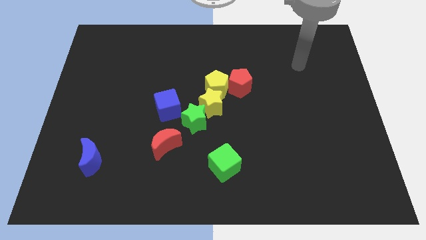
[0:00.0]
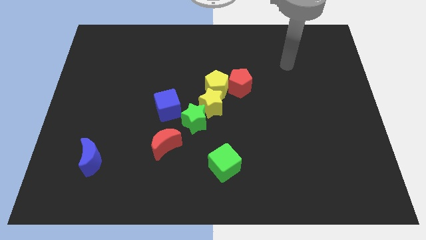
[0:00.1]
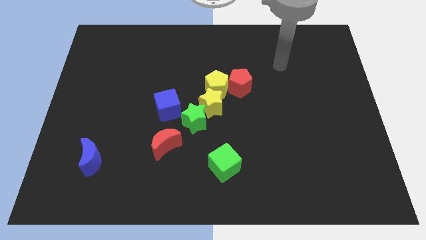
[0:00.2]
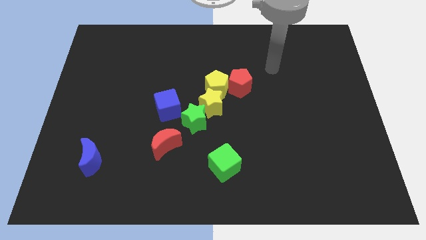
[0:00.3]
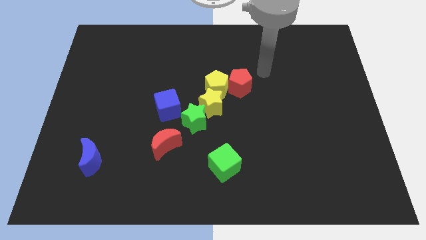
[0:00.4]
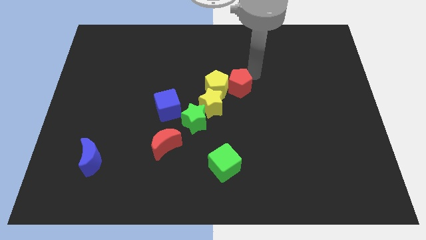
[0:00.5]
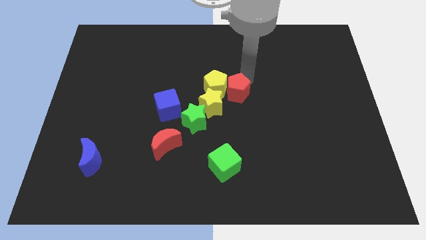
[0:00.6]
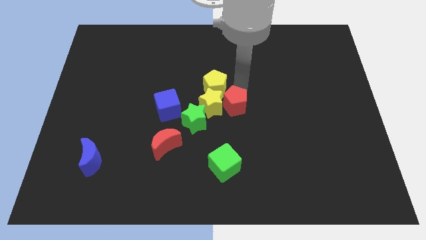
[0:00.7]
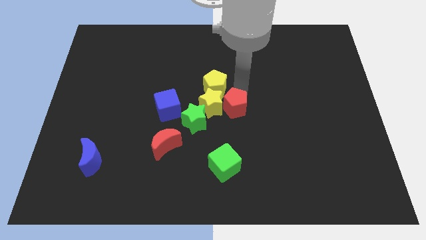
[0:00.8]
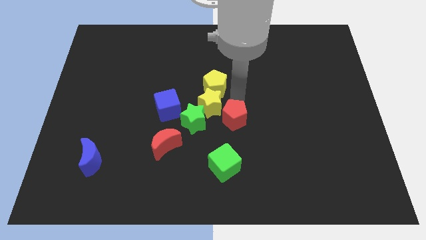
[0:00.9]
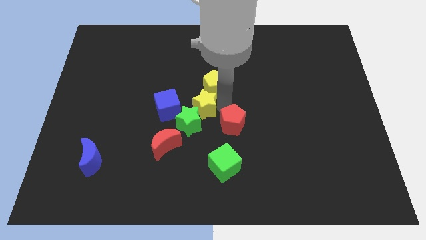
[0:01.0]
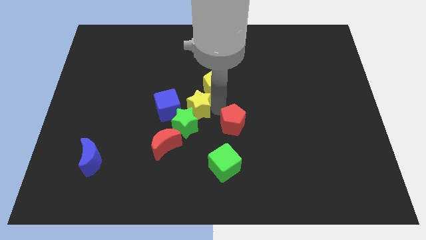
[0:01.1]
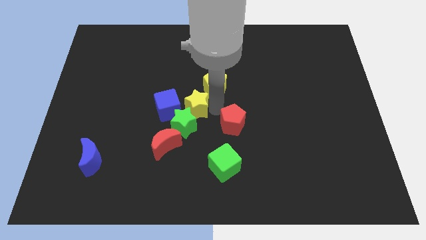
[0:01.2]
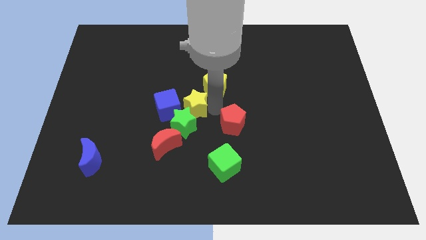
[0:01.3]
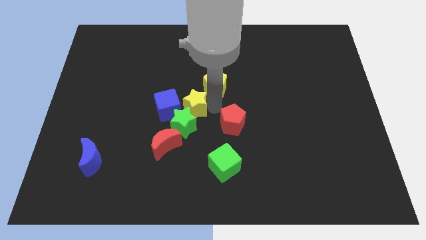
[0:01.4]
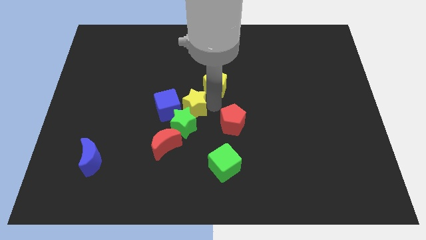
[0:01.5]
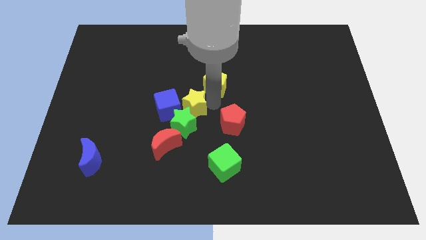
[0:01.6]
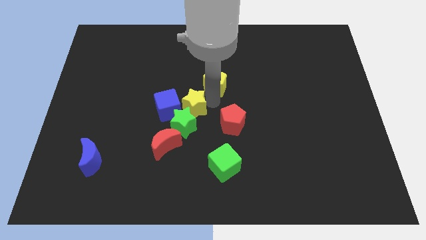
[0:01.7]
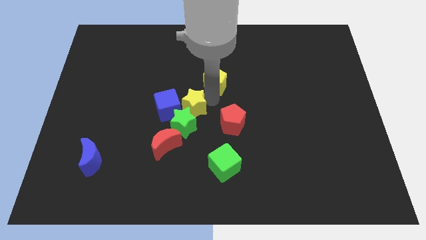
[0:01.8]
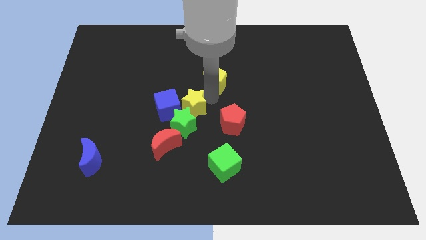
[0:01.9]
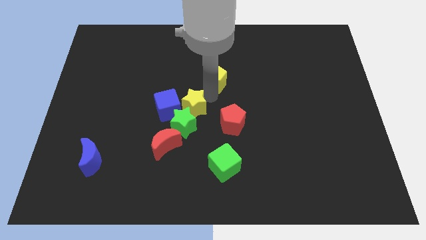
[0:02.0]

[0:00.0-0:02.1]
pull the yellow pentagon apart from the red pentagon and yellow star

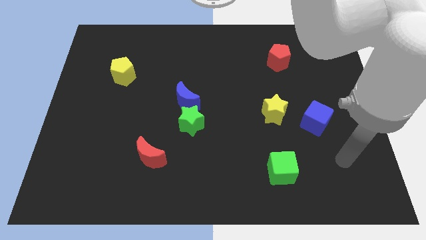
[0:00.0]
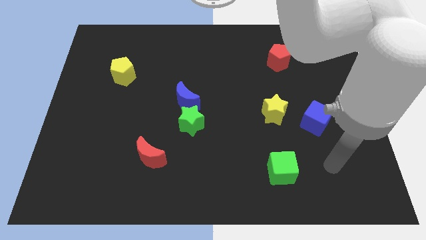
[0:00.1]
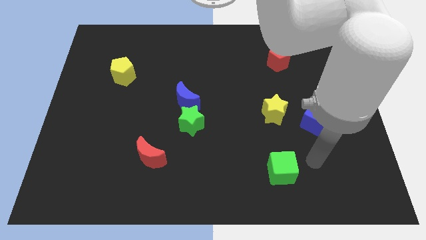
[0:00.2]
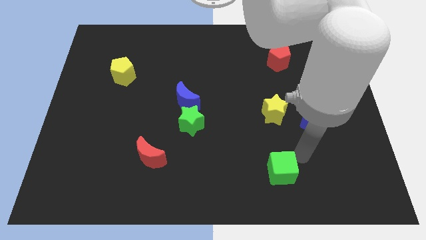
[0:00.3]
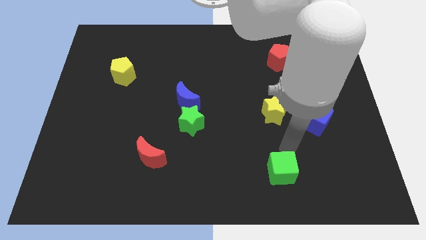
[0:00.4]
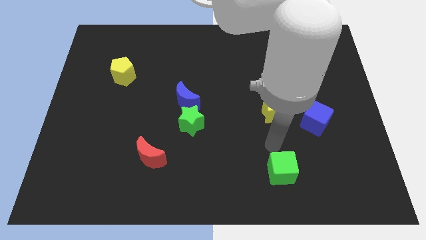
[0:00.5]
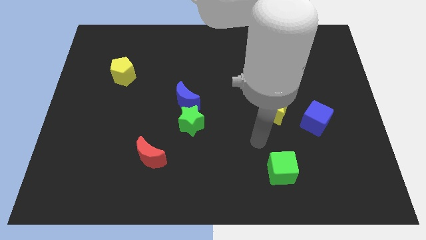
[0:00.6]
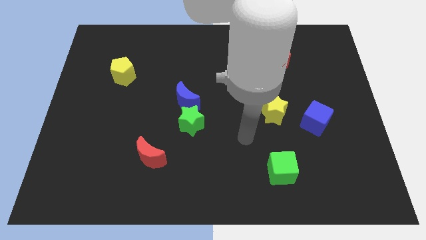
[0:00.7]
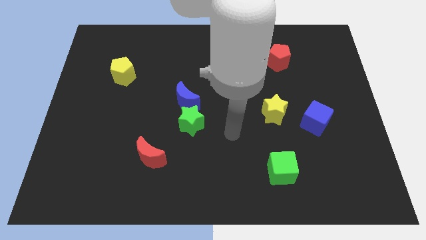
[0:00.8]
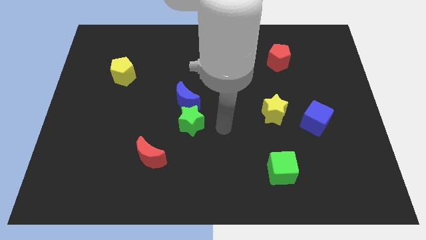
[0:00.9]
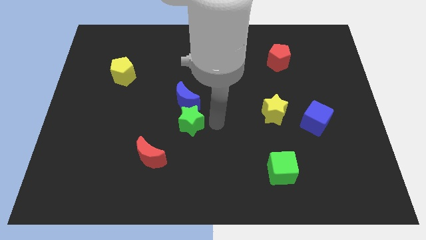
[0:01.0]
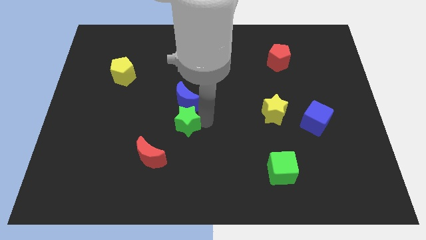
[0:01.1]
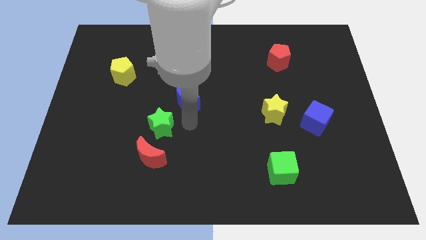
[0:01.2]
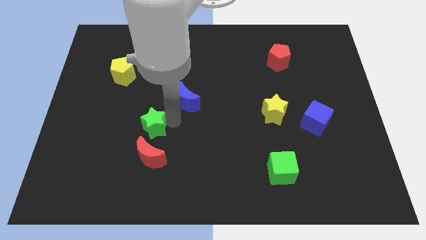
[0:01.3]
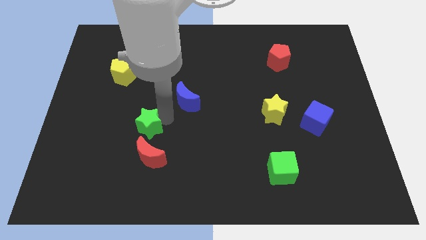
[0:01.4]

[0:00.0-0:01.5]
move the blue moon away from the green star

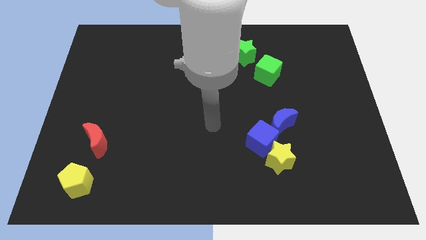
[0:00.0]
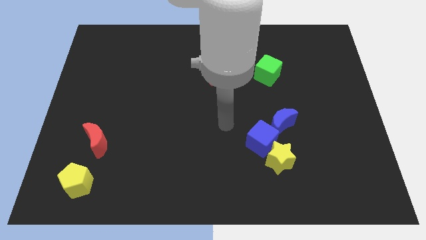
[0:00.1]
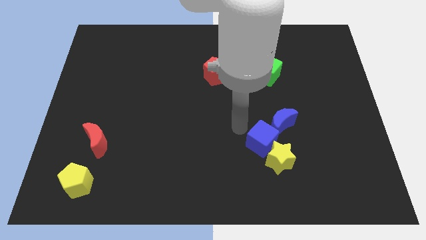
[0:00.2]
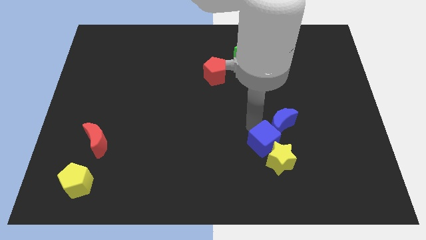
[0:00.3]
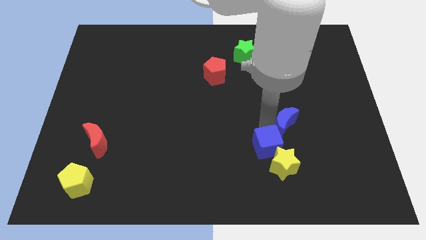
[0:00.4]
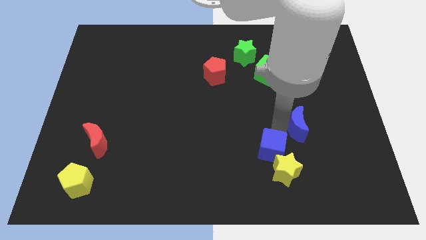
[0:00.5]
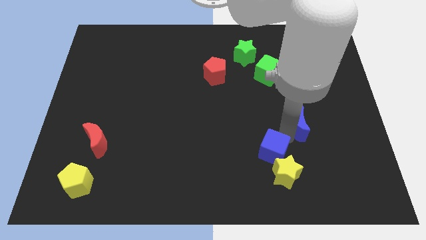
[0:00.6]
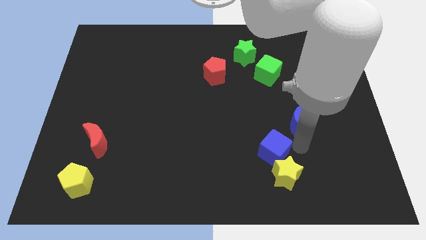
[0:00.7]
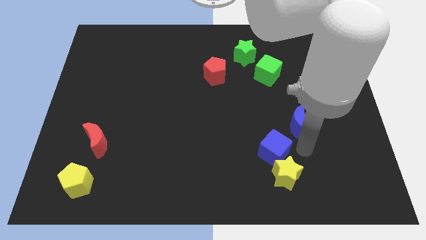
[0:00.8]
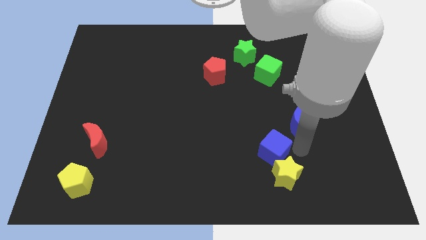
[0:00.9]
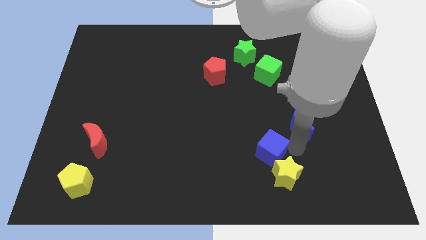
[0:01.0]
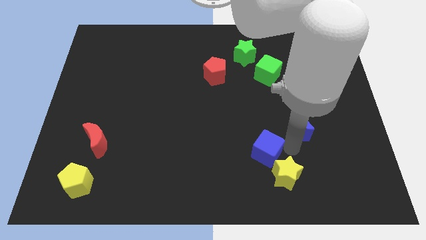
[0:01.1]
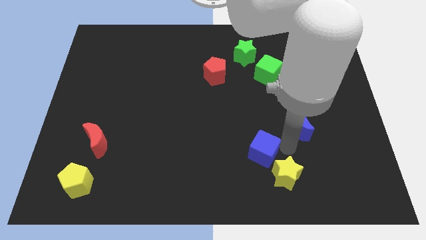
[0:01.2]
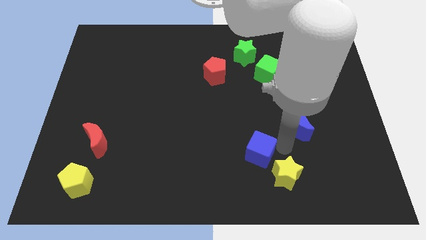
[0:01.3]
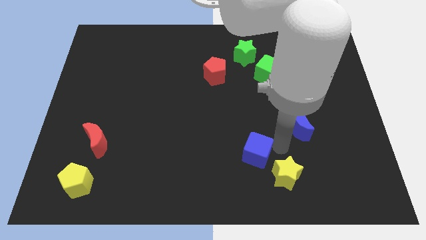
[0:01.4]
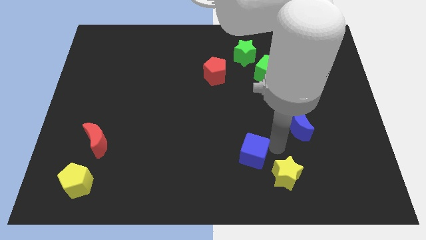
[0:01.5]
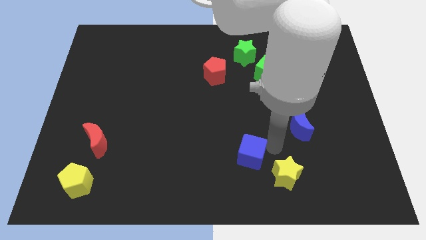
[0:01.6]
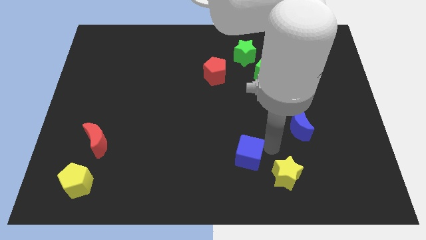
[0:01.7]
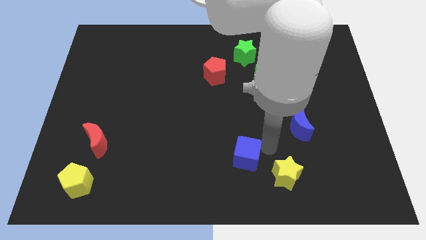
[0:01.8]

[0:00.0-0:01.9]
pull the blue cube apart from the yellow star and blue moon

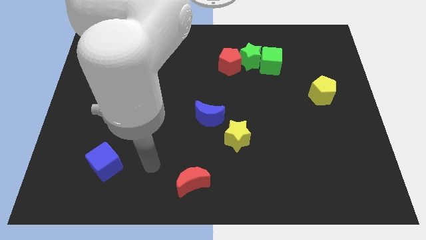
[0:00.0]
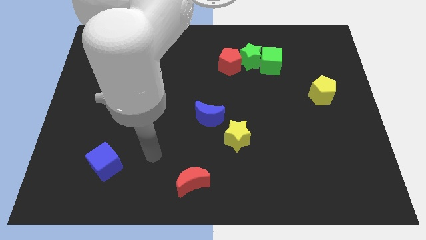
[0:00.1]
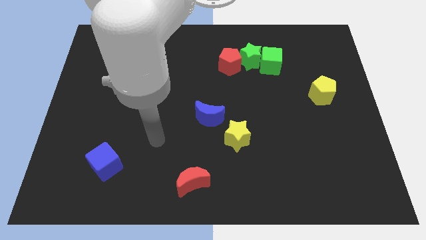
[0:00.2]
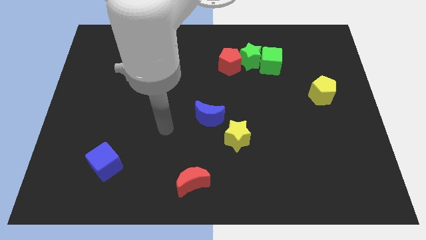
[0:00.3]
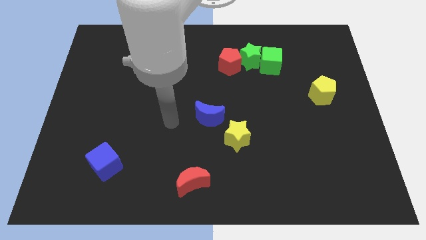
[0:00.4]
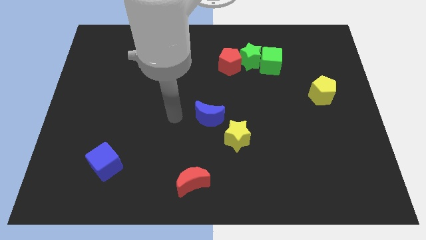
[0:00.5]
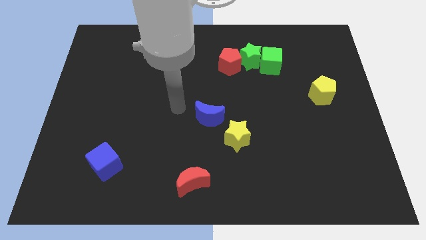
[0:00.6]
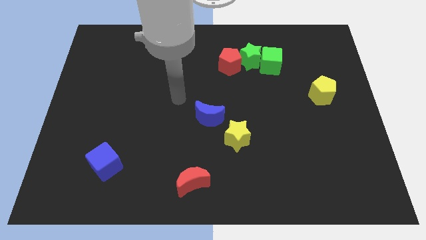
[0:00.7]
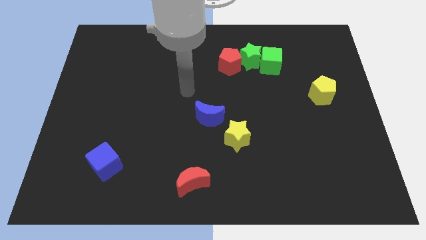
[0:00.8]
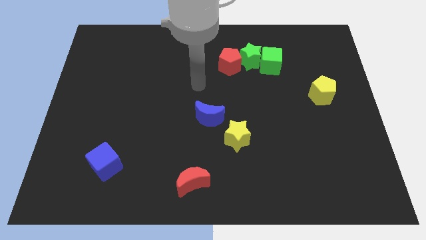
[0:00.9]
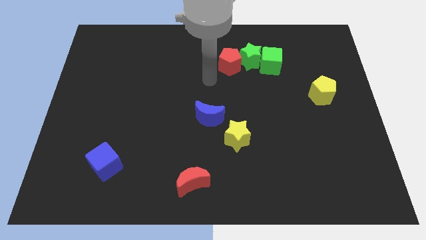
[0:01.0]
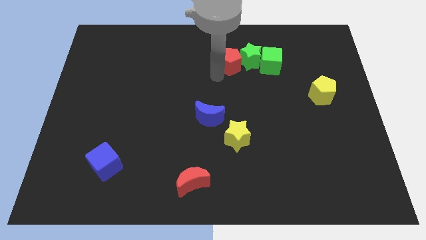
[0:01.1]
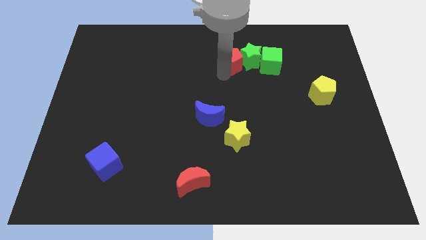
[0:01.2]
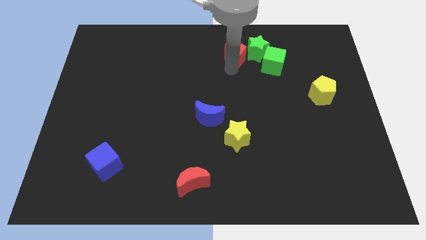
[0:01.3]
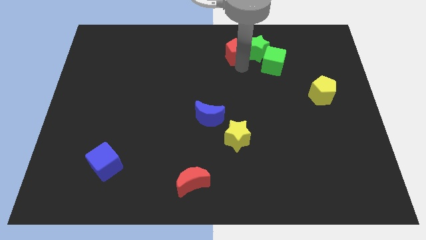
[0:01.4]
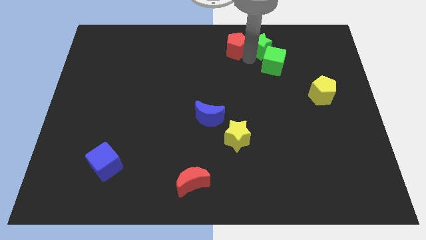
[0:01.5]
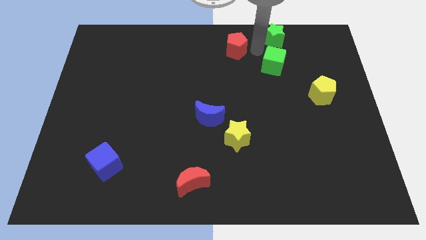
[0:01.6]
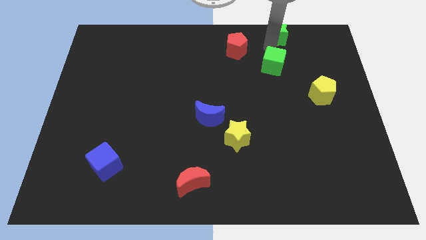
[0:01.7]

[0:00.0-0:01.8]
separate the green cube from the green star

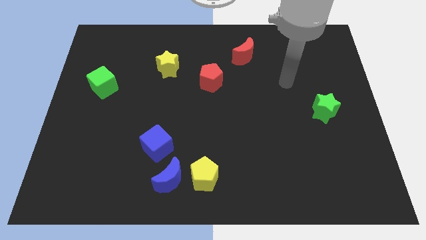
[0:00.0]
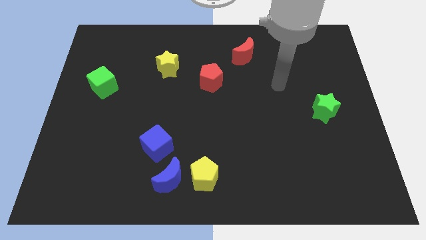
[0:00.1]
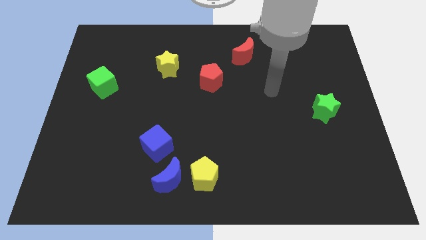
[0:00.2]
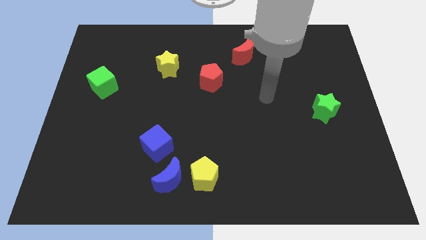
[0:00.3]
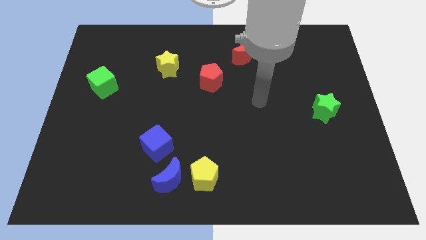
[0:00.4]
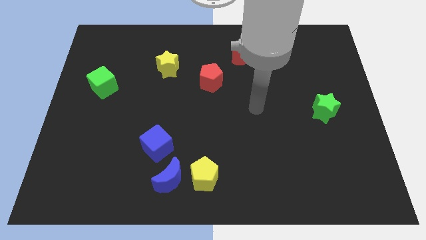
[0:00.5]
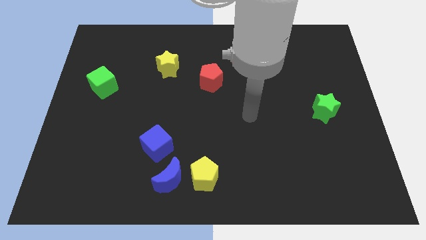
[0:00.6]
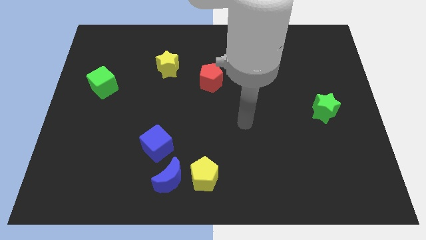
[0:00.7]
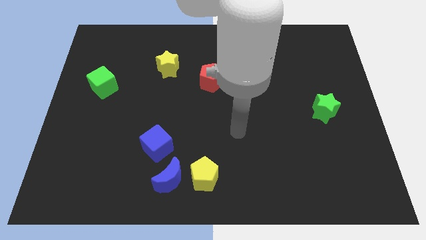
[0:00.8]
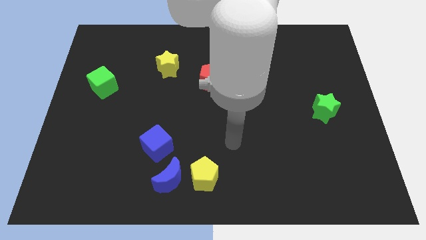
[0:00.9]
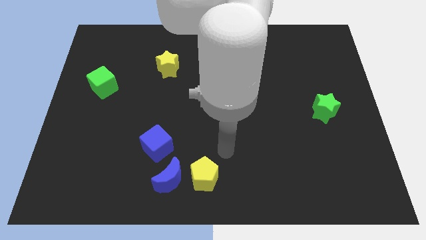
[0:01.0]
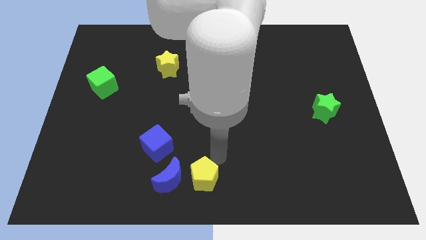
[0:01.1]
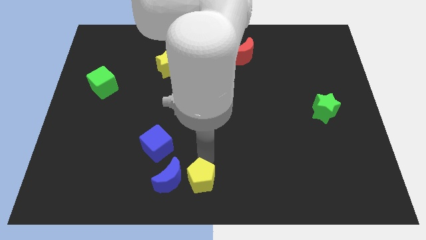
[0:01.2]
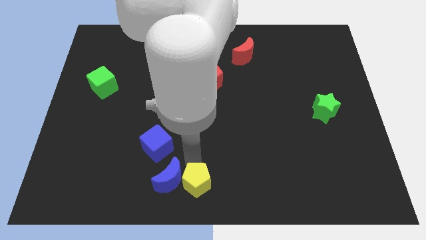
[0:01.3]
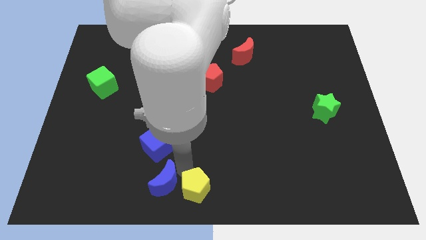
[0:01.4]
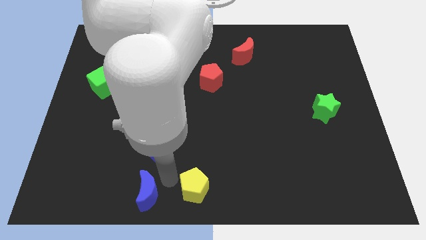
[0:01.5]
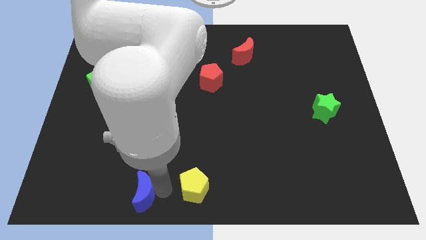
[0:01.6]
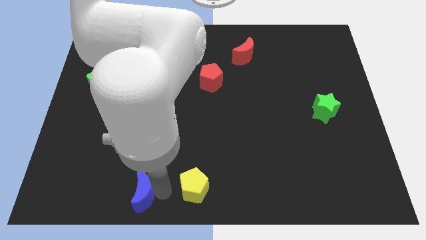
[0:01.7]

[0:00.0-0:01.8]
move the yellow pentagon away from the blue moon
